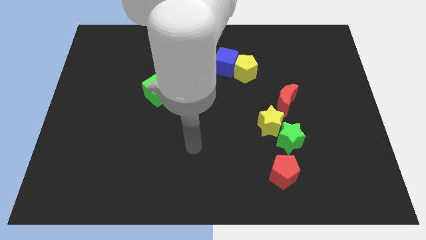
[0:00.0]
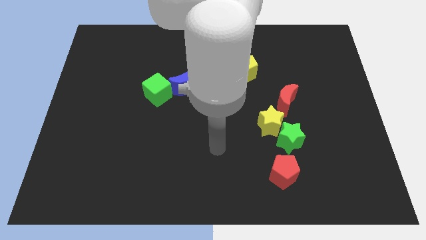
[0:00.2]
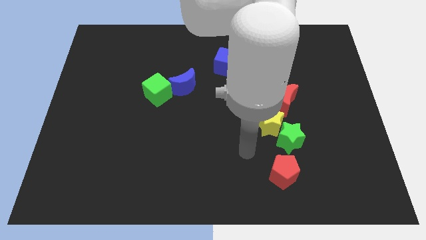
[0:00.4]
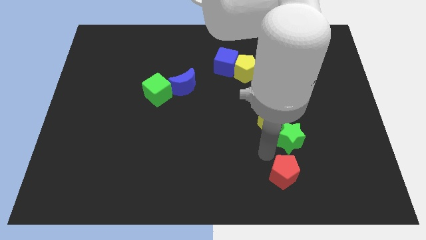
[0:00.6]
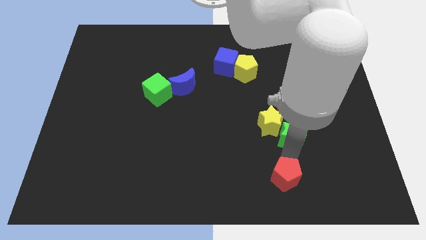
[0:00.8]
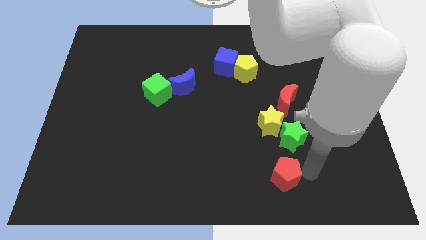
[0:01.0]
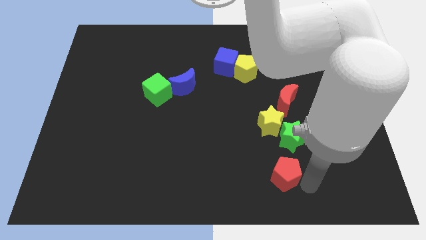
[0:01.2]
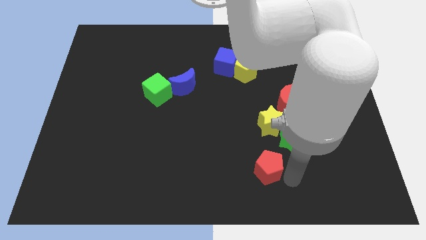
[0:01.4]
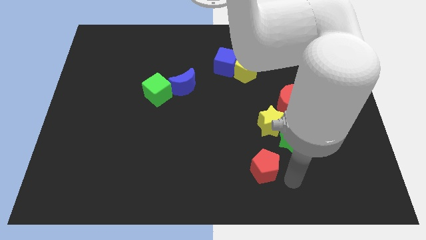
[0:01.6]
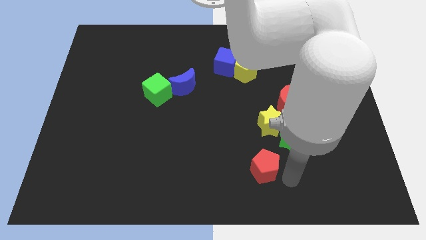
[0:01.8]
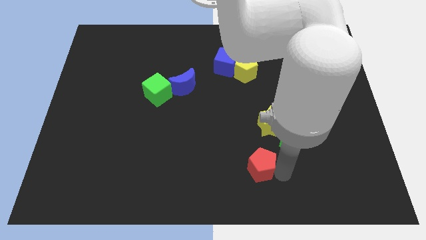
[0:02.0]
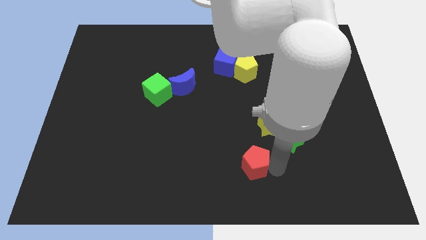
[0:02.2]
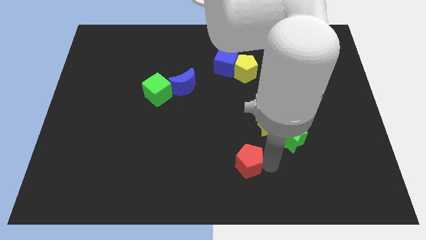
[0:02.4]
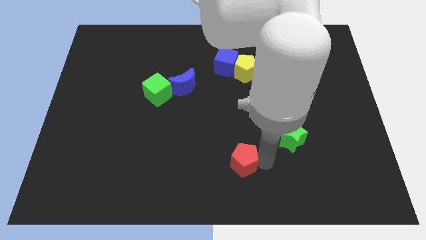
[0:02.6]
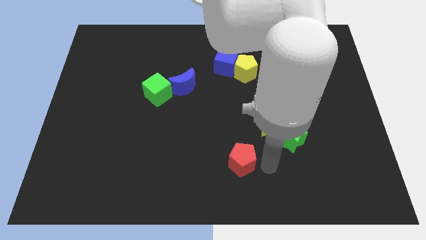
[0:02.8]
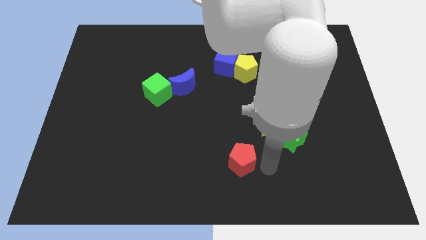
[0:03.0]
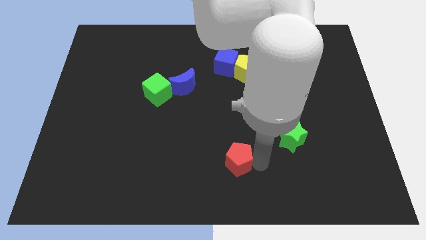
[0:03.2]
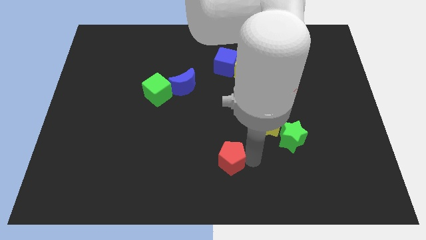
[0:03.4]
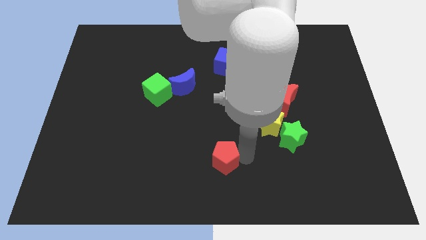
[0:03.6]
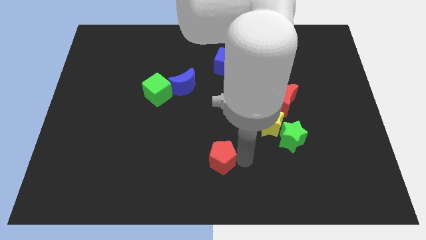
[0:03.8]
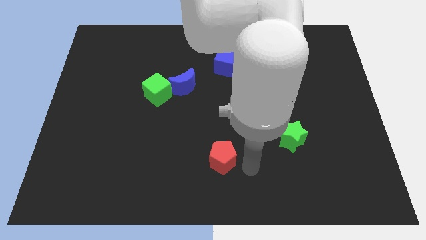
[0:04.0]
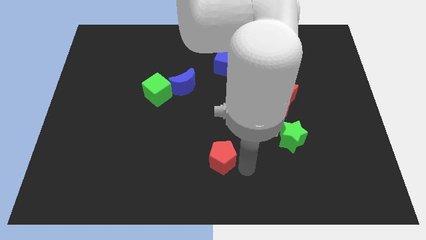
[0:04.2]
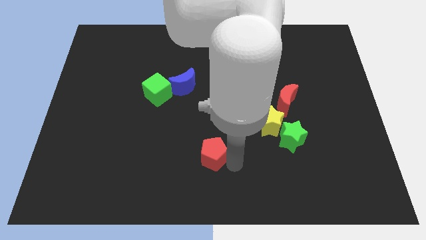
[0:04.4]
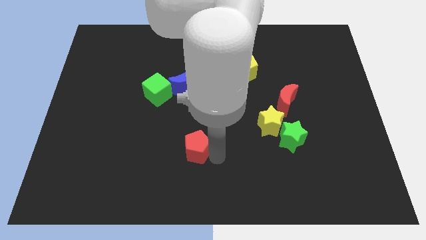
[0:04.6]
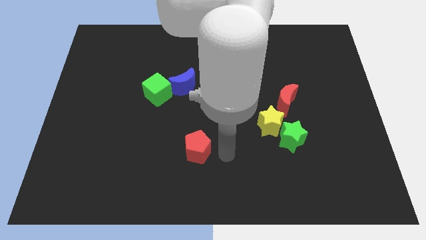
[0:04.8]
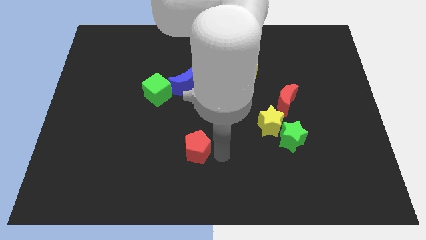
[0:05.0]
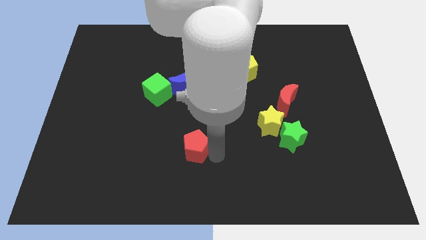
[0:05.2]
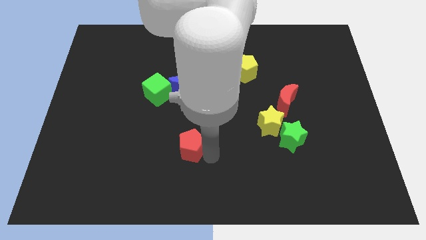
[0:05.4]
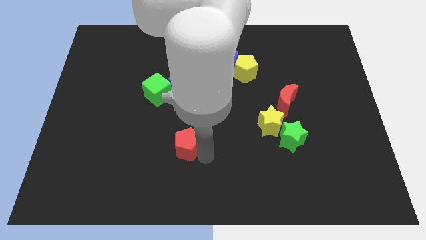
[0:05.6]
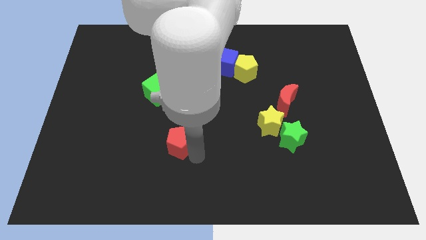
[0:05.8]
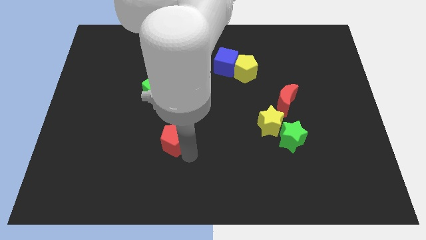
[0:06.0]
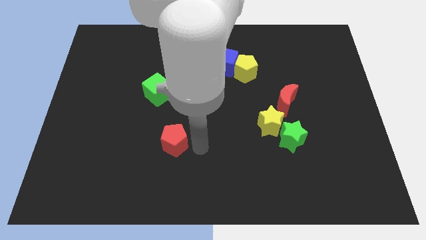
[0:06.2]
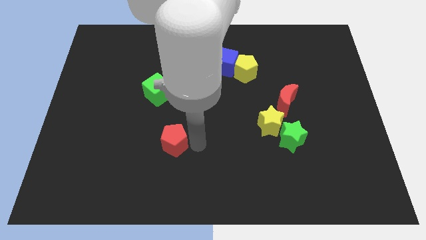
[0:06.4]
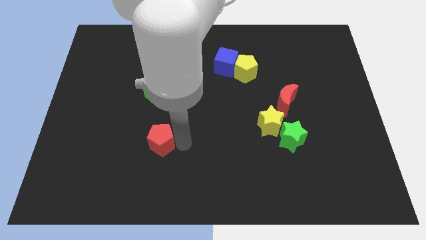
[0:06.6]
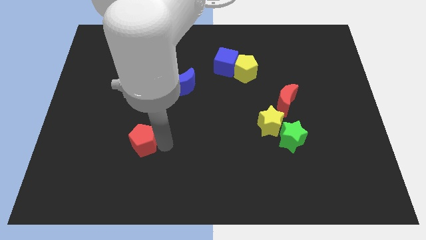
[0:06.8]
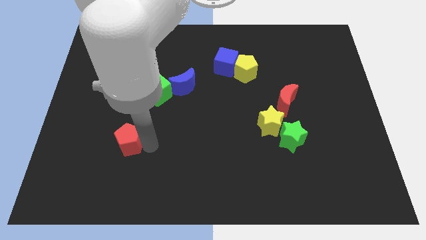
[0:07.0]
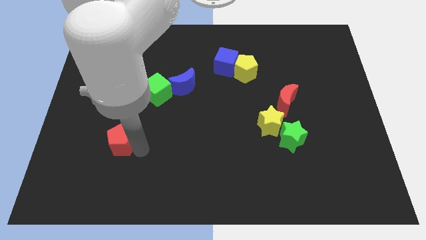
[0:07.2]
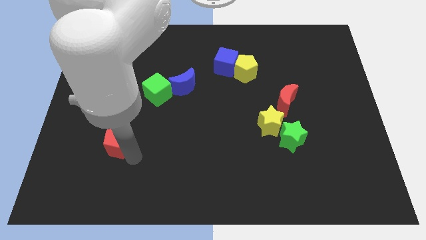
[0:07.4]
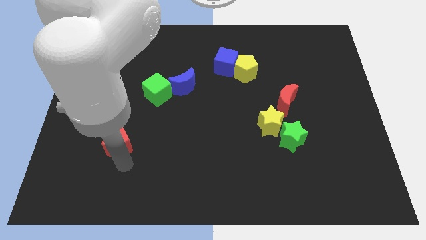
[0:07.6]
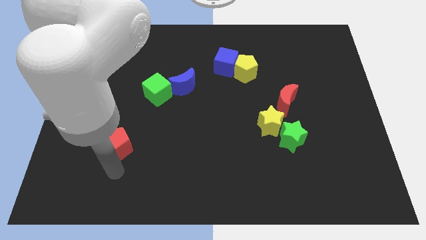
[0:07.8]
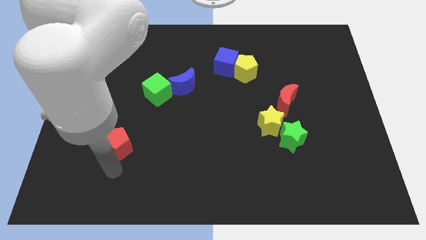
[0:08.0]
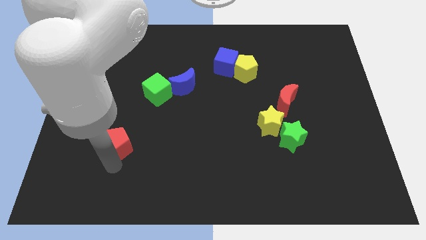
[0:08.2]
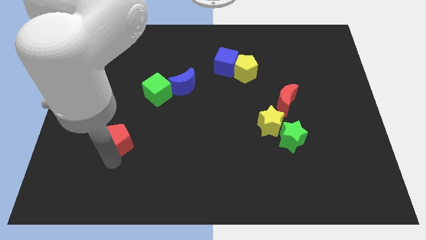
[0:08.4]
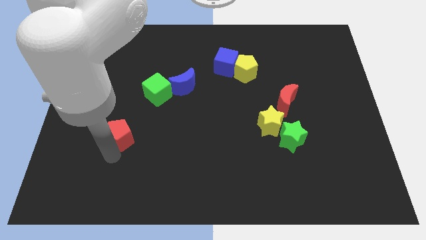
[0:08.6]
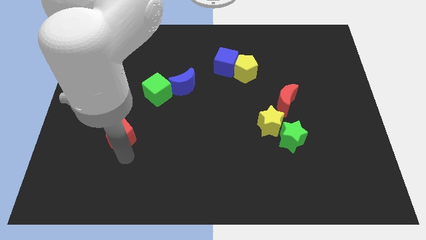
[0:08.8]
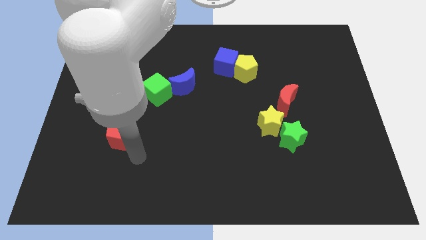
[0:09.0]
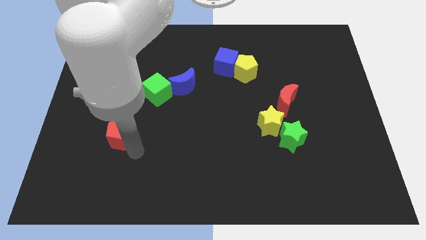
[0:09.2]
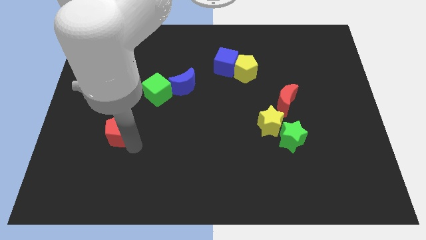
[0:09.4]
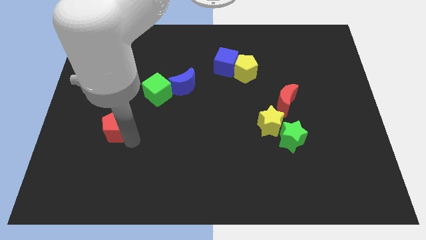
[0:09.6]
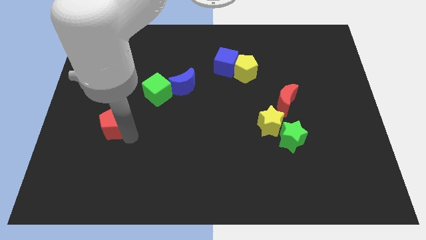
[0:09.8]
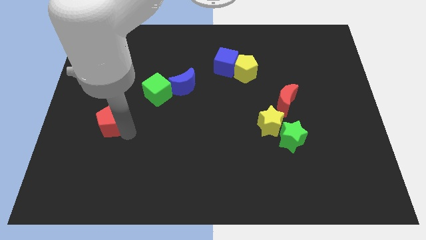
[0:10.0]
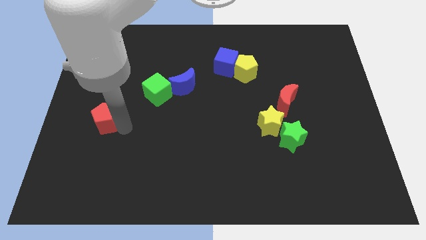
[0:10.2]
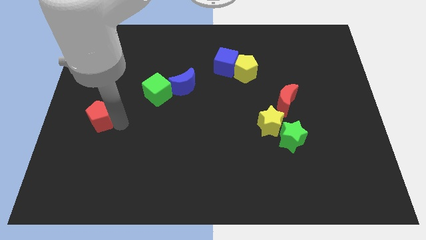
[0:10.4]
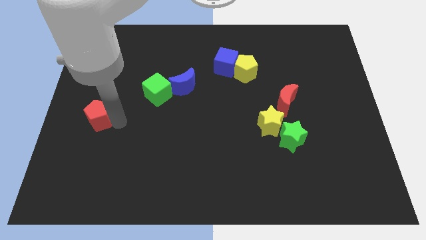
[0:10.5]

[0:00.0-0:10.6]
push the red pentagon to the center left

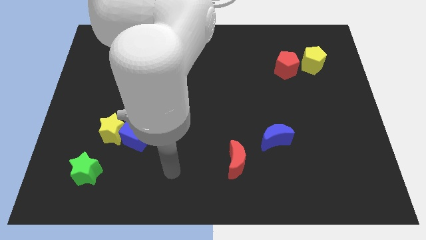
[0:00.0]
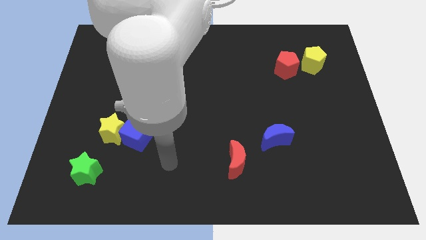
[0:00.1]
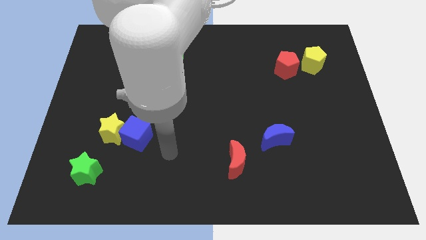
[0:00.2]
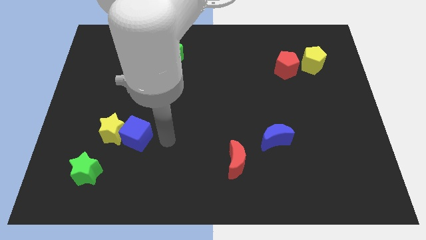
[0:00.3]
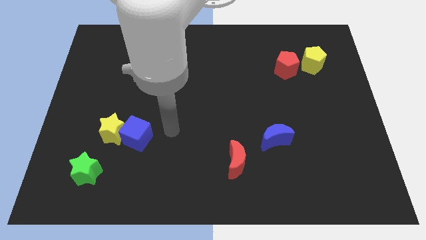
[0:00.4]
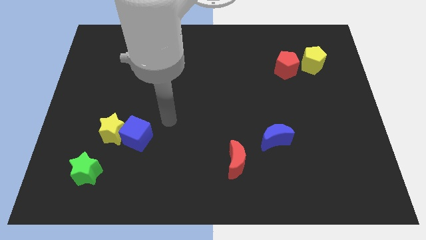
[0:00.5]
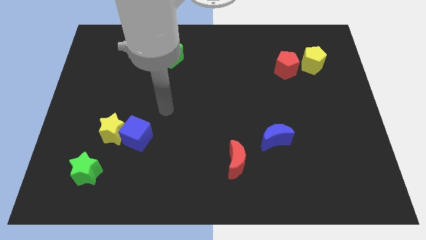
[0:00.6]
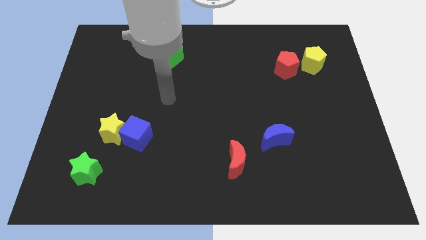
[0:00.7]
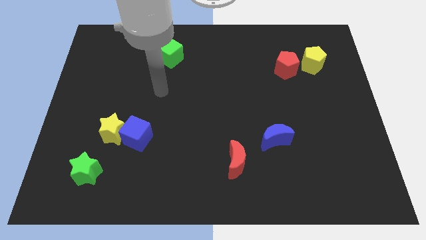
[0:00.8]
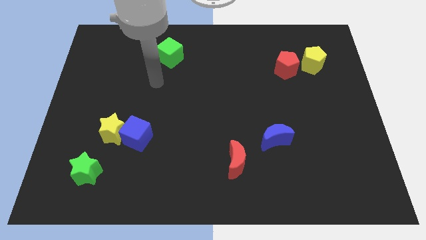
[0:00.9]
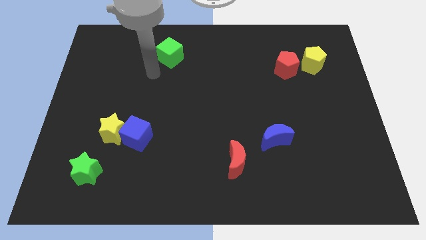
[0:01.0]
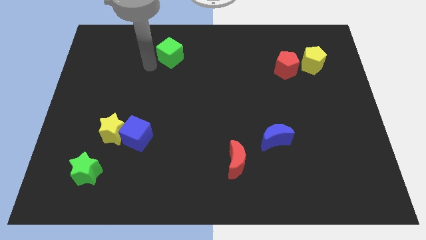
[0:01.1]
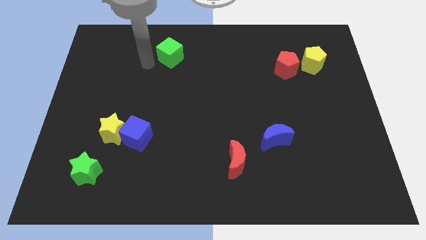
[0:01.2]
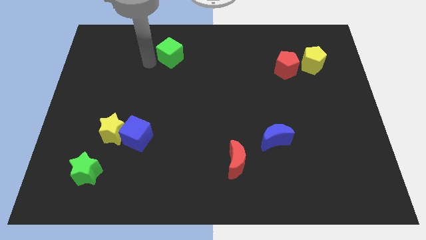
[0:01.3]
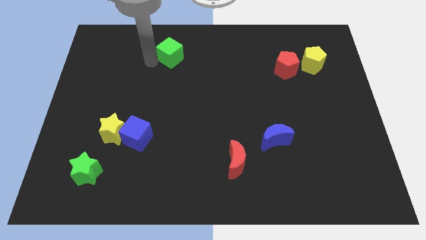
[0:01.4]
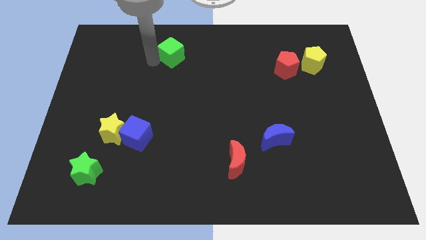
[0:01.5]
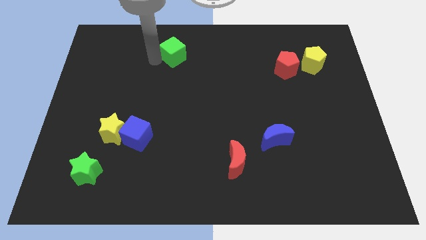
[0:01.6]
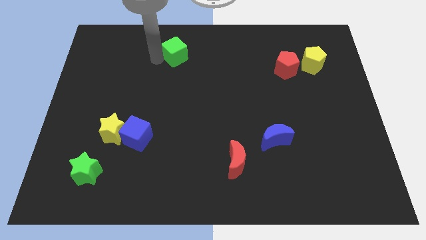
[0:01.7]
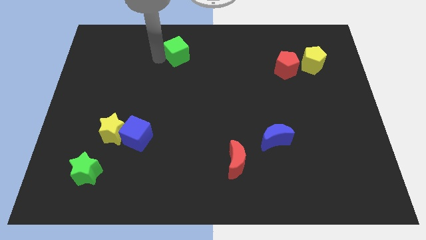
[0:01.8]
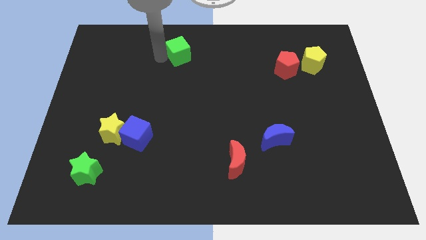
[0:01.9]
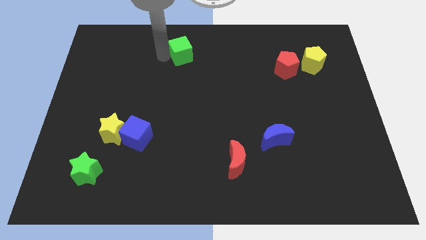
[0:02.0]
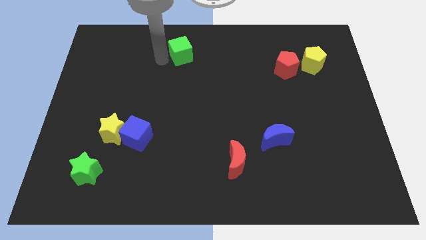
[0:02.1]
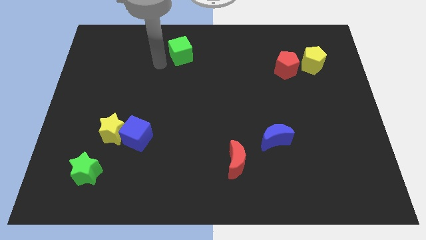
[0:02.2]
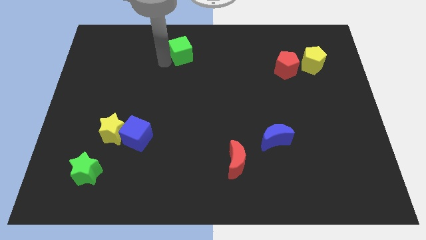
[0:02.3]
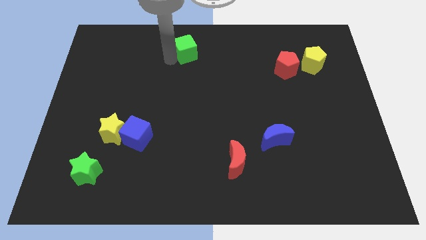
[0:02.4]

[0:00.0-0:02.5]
push the green cube to the top
